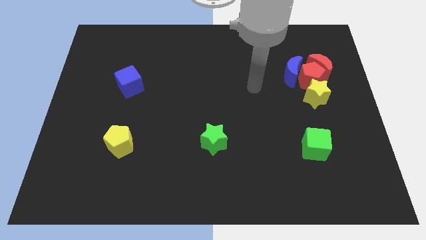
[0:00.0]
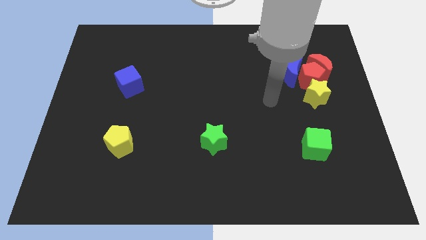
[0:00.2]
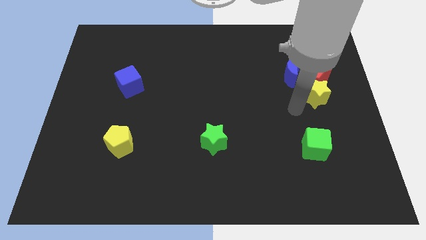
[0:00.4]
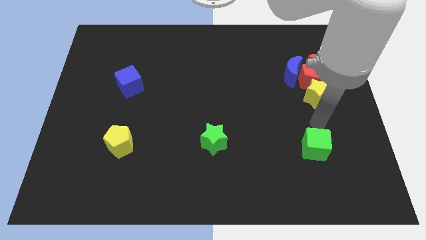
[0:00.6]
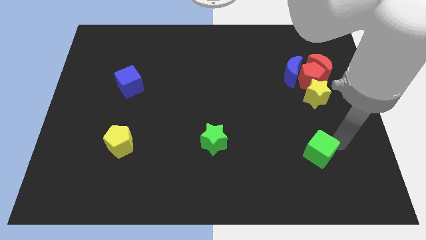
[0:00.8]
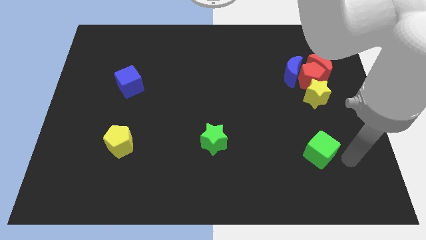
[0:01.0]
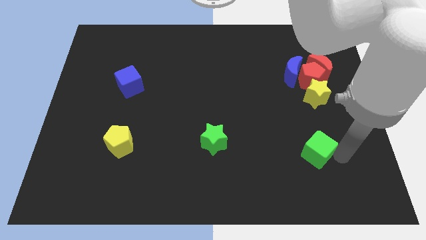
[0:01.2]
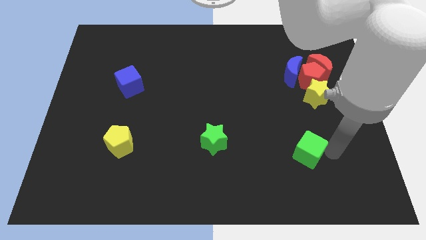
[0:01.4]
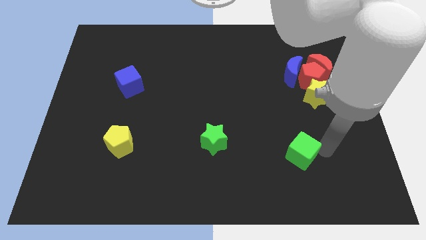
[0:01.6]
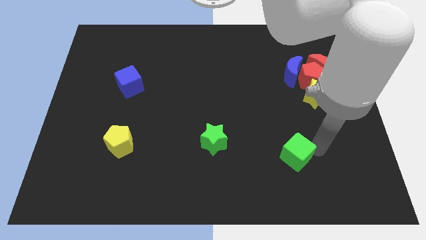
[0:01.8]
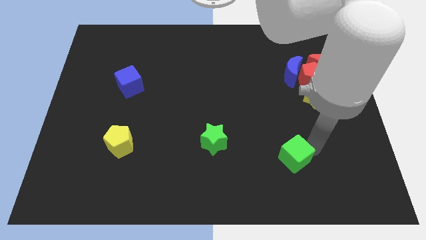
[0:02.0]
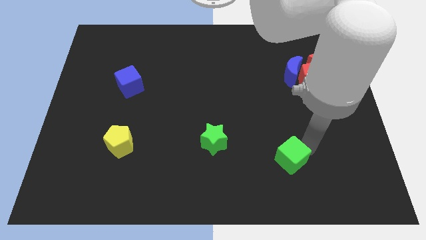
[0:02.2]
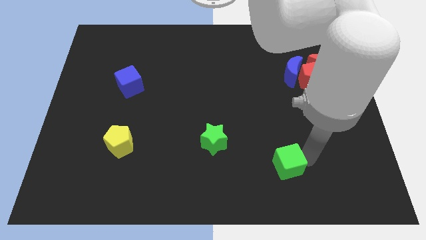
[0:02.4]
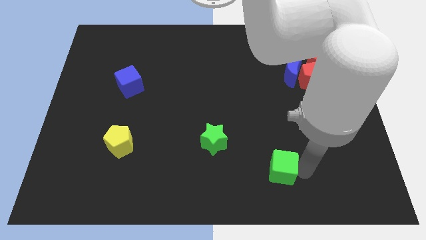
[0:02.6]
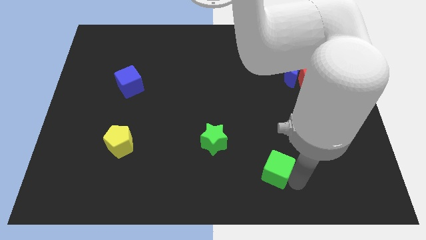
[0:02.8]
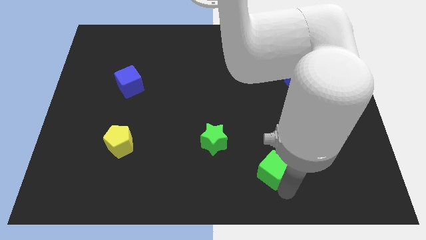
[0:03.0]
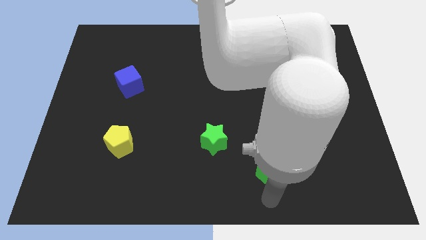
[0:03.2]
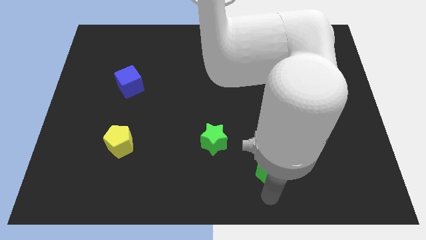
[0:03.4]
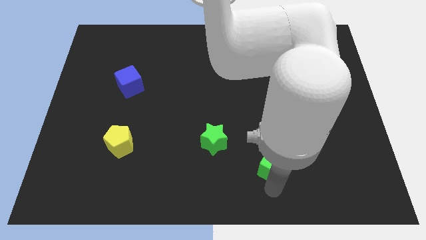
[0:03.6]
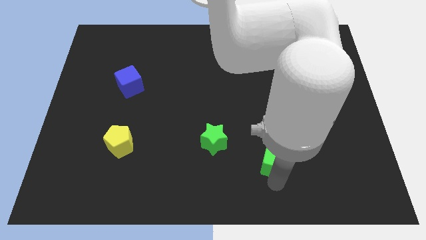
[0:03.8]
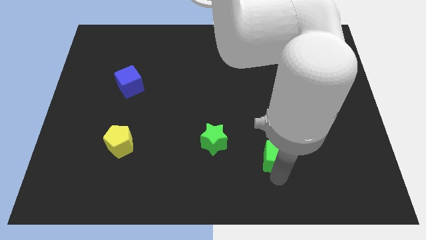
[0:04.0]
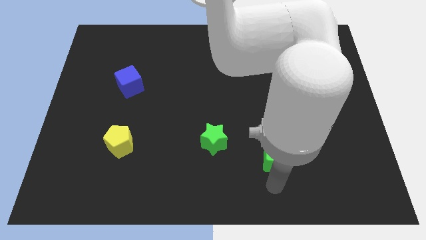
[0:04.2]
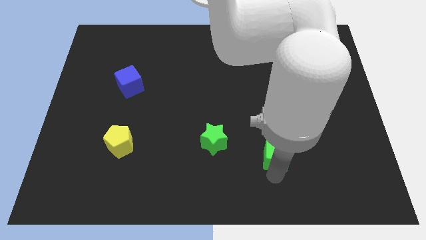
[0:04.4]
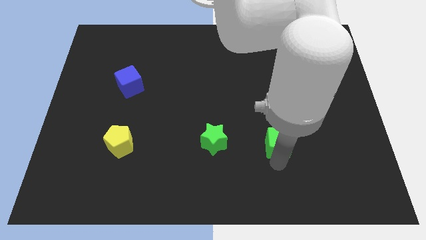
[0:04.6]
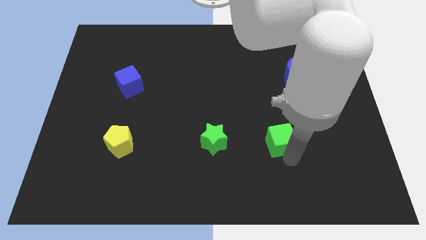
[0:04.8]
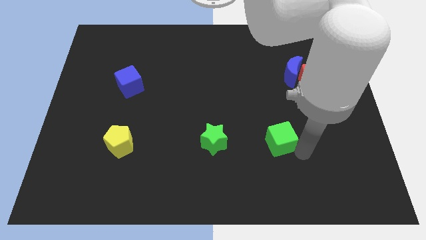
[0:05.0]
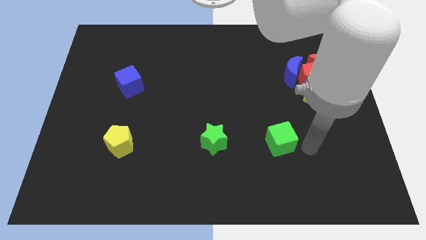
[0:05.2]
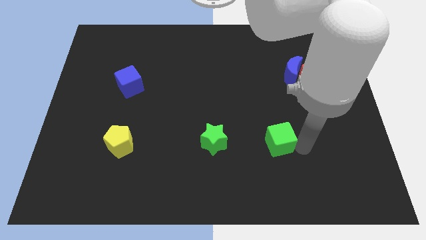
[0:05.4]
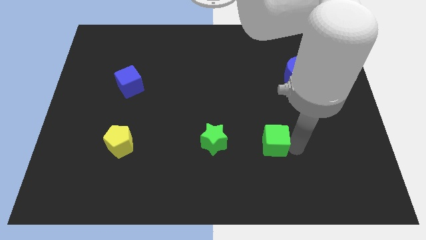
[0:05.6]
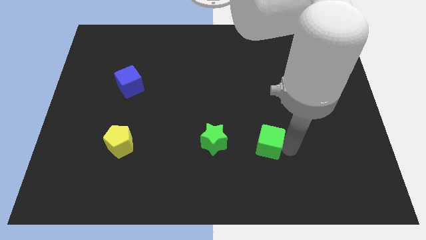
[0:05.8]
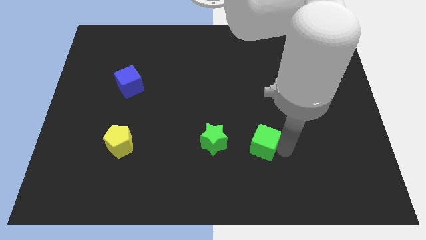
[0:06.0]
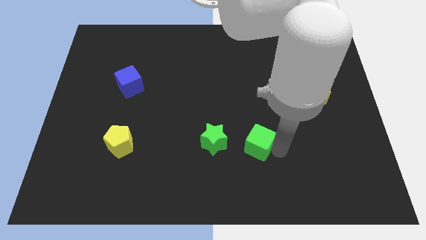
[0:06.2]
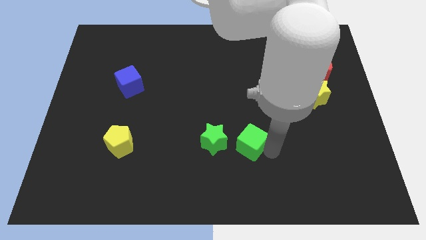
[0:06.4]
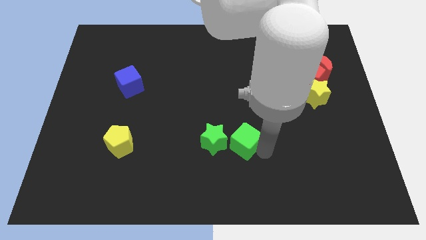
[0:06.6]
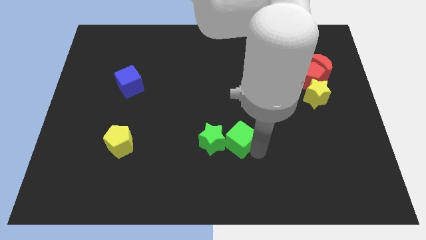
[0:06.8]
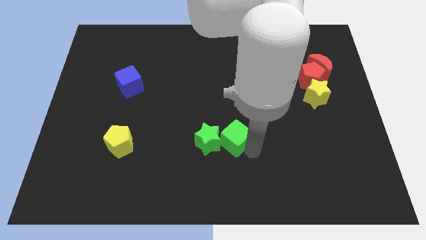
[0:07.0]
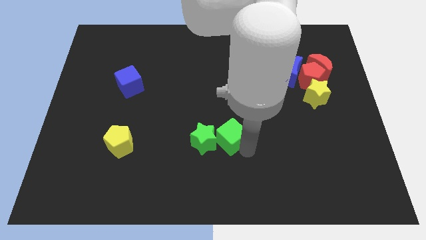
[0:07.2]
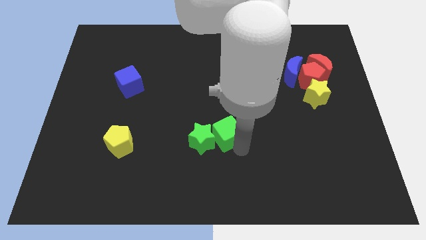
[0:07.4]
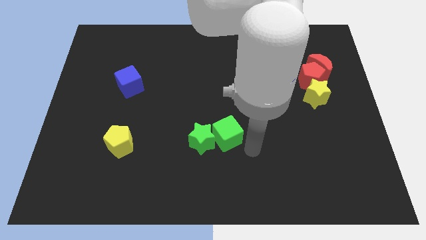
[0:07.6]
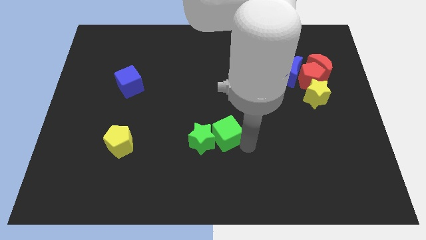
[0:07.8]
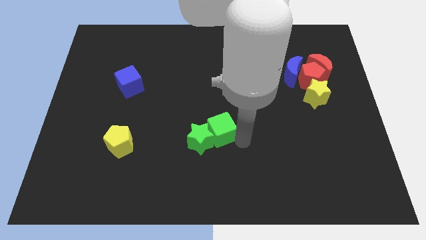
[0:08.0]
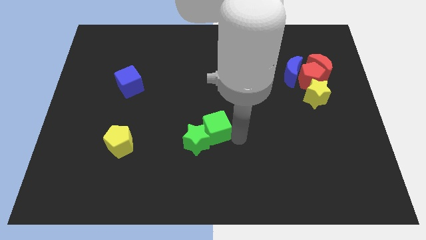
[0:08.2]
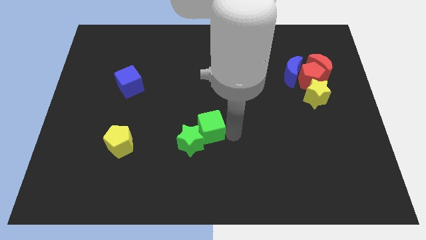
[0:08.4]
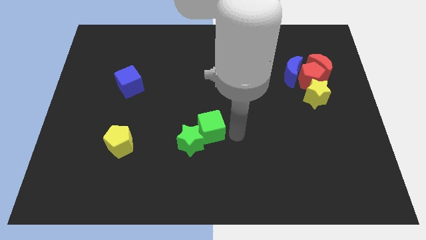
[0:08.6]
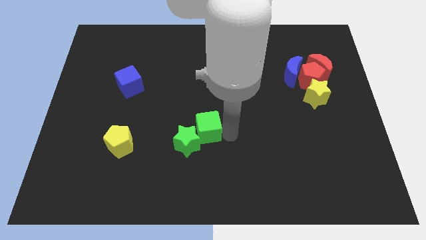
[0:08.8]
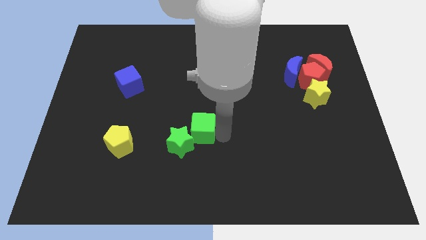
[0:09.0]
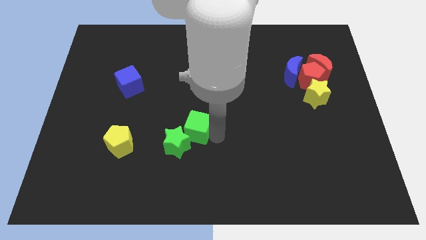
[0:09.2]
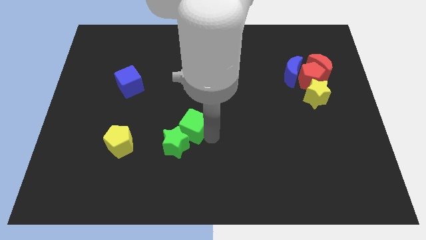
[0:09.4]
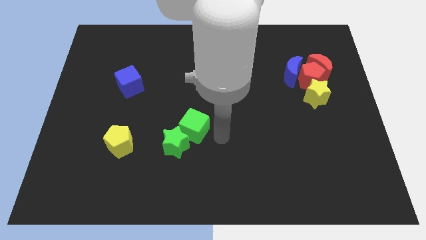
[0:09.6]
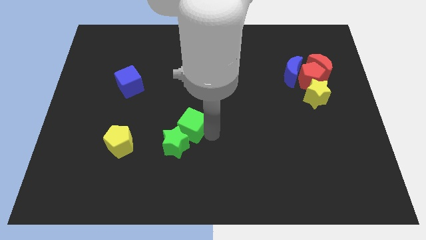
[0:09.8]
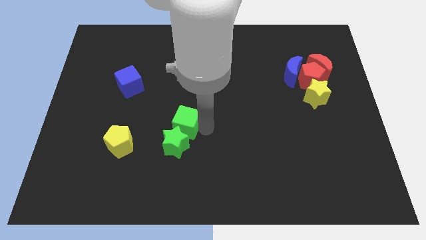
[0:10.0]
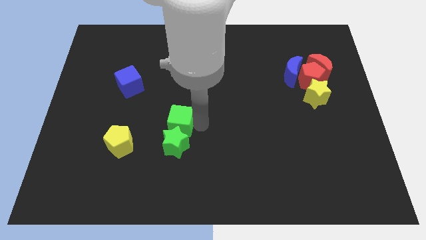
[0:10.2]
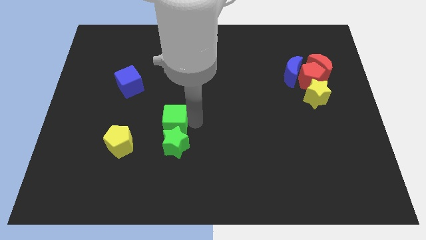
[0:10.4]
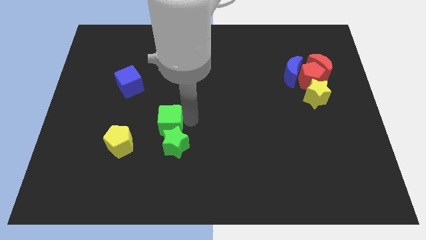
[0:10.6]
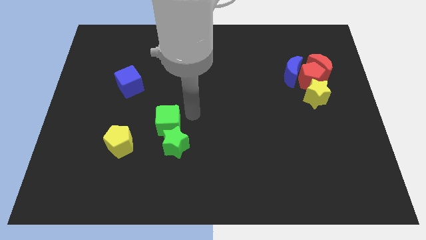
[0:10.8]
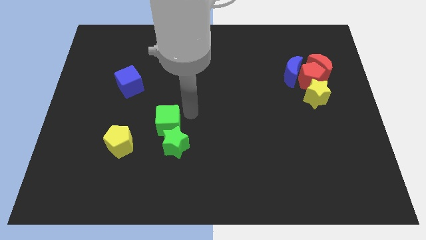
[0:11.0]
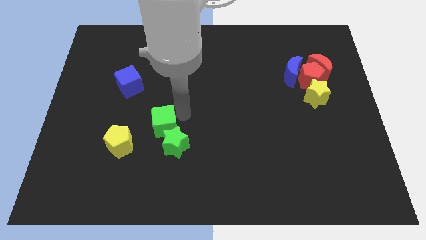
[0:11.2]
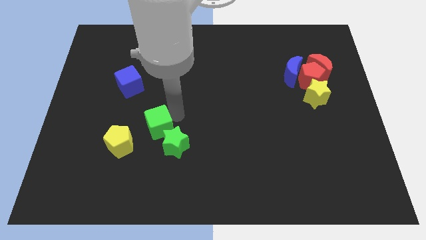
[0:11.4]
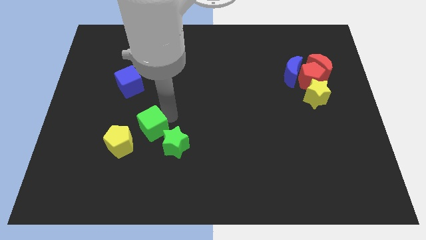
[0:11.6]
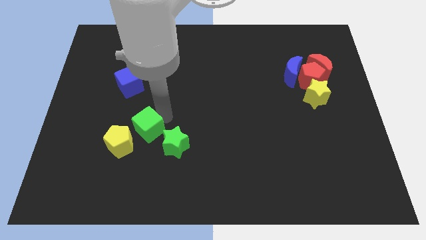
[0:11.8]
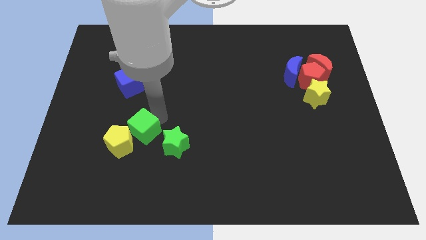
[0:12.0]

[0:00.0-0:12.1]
slide the green cube next to the yellow pentagon

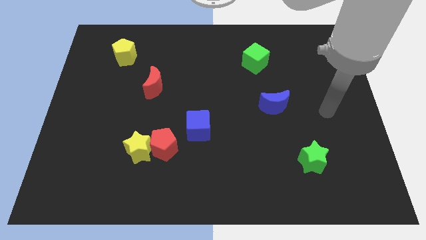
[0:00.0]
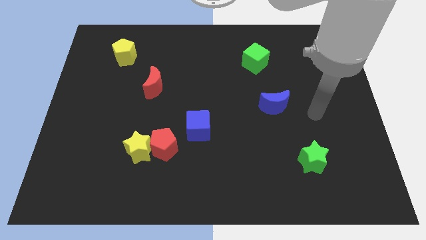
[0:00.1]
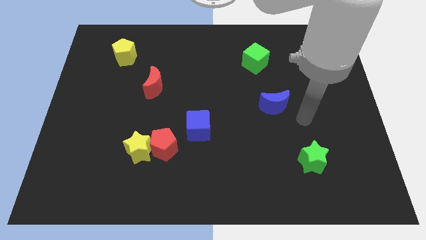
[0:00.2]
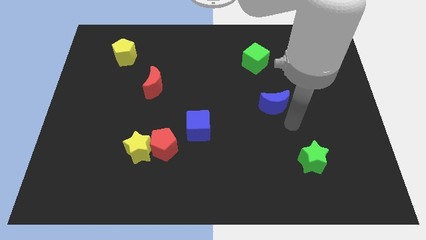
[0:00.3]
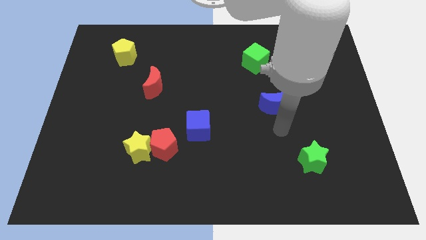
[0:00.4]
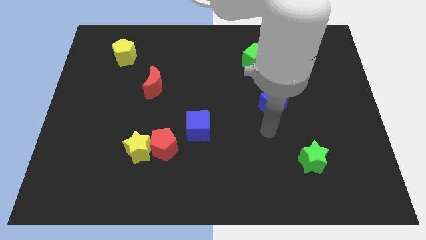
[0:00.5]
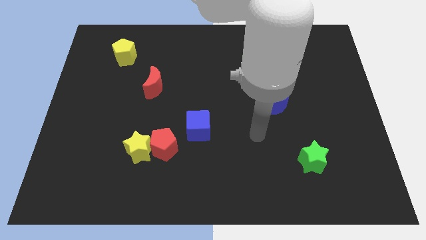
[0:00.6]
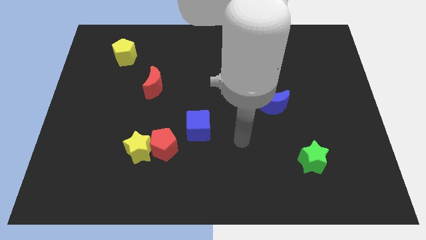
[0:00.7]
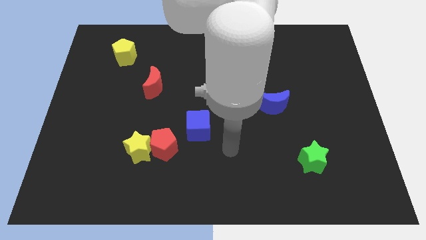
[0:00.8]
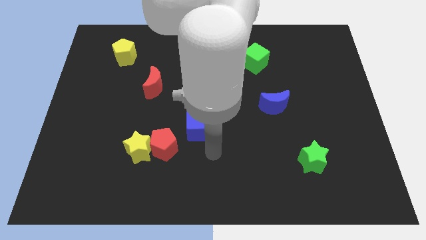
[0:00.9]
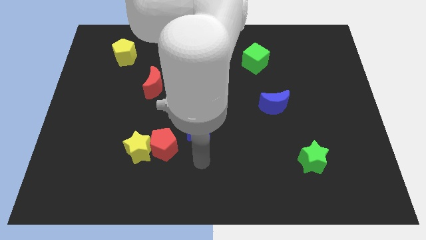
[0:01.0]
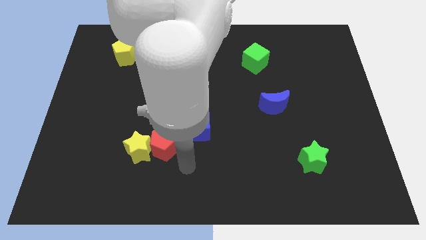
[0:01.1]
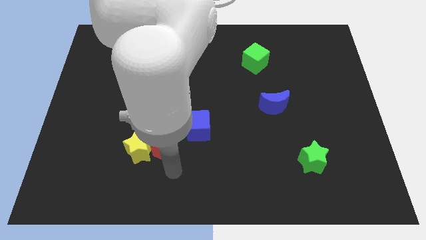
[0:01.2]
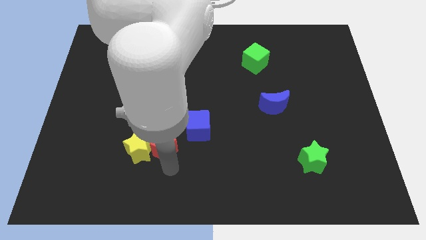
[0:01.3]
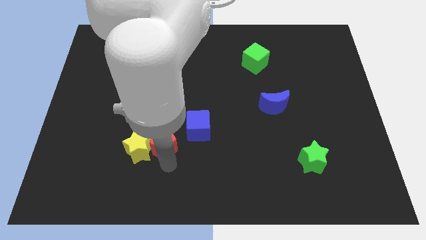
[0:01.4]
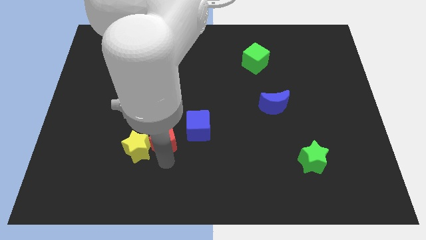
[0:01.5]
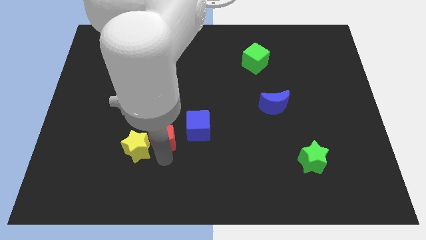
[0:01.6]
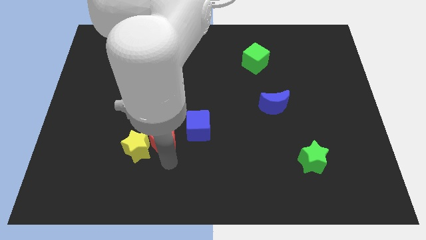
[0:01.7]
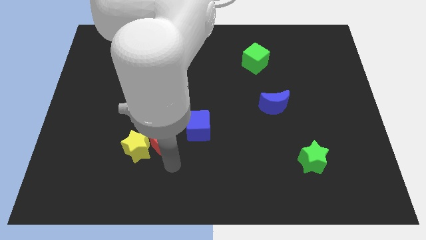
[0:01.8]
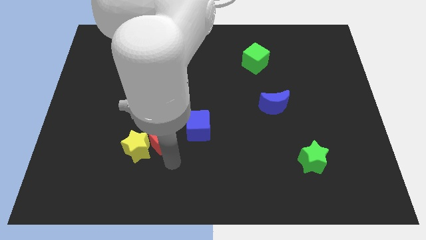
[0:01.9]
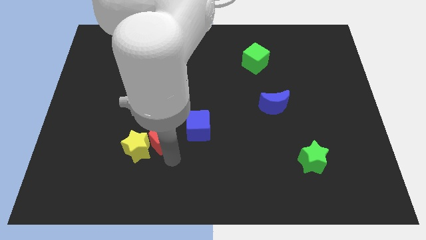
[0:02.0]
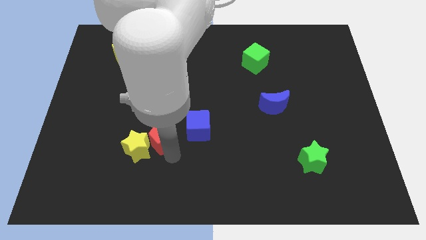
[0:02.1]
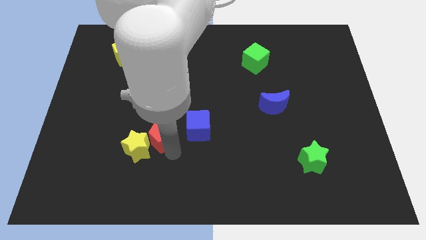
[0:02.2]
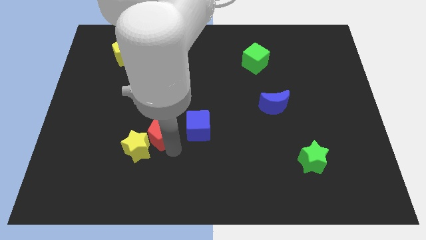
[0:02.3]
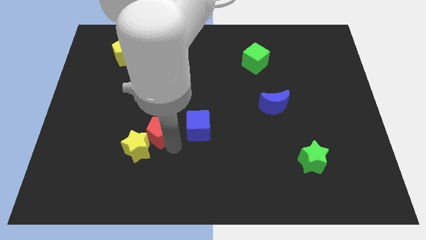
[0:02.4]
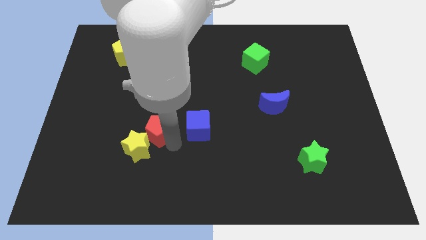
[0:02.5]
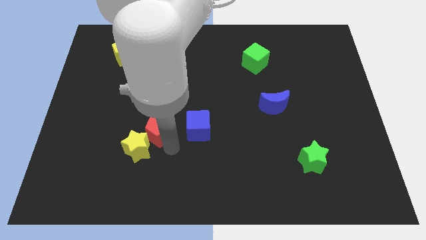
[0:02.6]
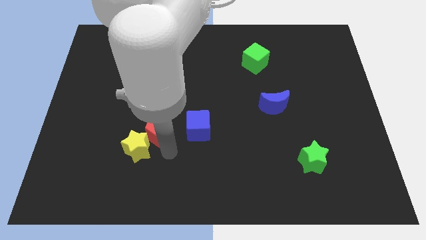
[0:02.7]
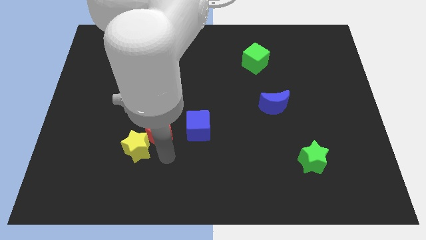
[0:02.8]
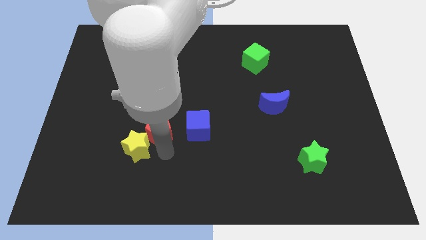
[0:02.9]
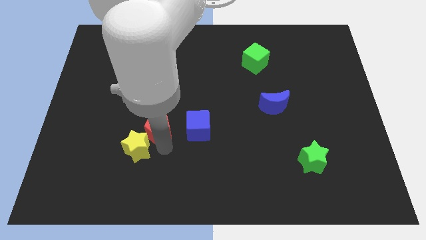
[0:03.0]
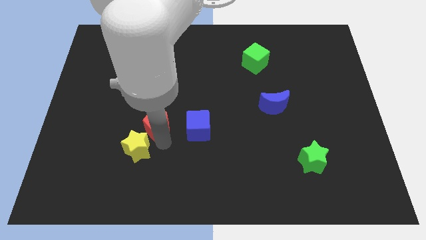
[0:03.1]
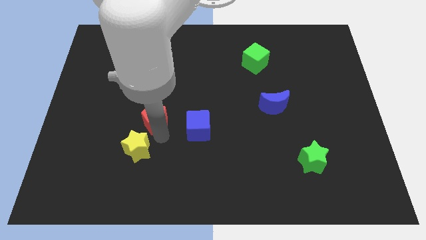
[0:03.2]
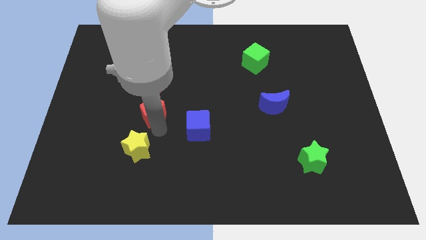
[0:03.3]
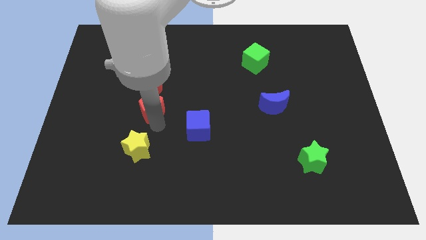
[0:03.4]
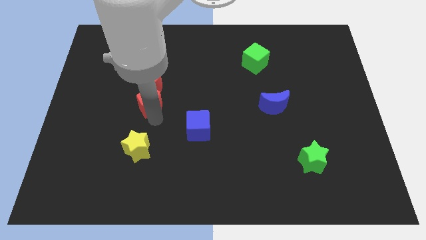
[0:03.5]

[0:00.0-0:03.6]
slide the red pentagon close to the red moon
